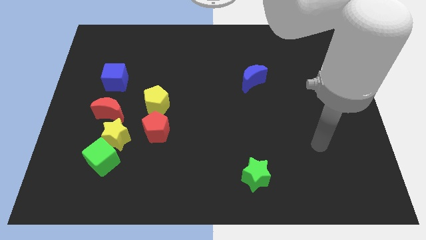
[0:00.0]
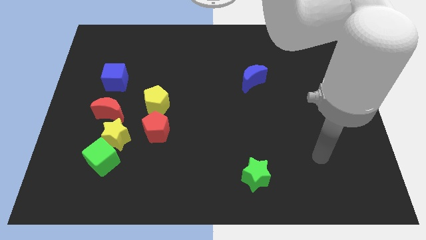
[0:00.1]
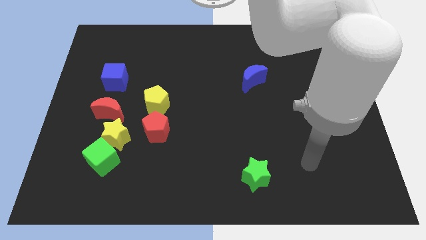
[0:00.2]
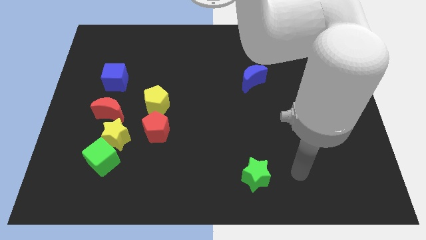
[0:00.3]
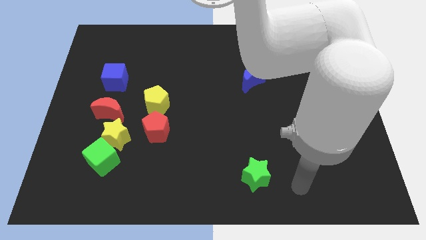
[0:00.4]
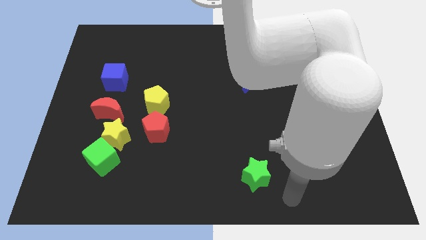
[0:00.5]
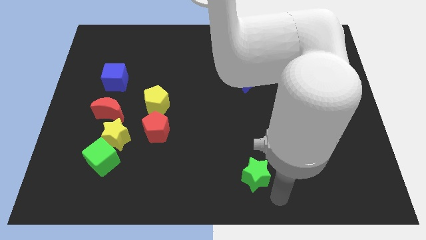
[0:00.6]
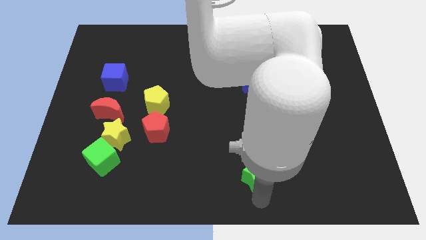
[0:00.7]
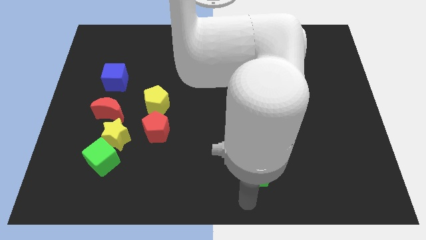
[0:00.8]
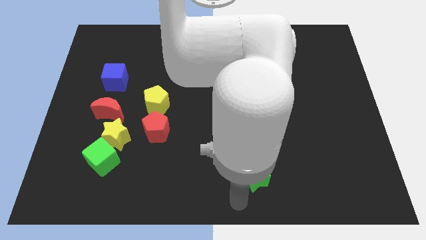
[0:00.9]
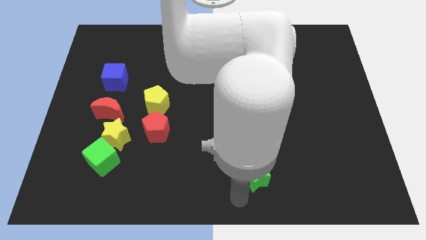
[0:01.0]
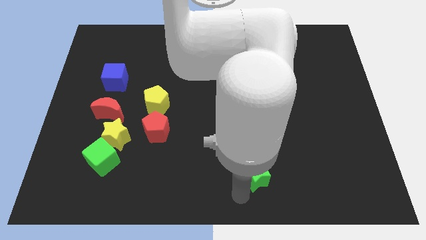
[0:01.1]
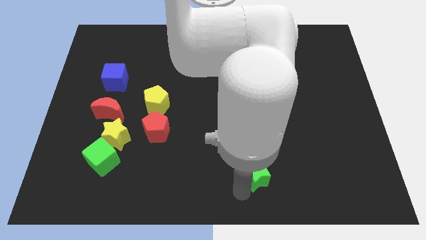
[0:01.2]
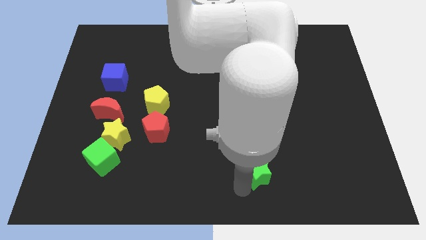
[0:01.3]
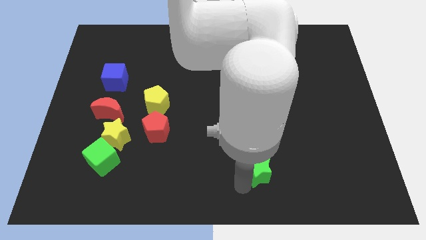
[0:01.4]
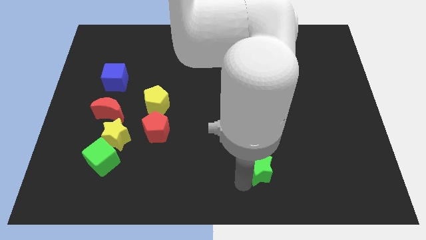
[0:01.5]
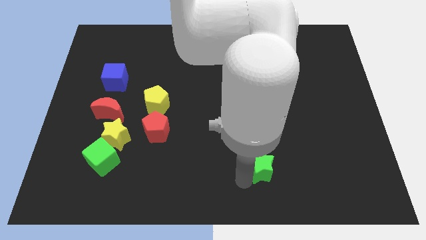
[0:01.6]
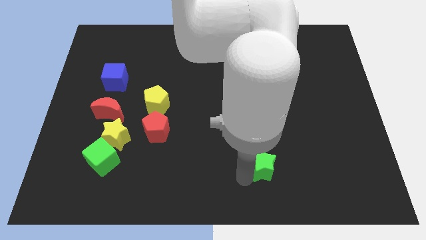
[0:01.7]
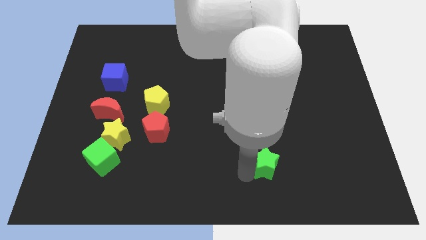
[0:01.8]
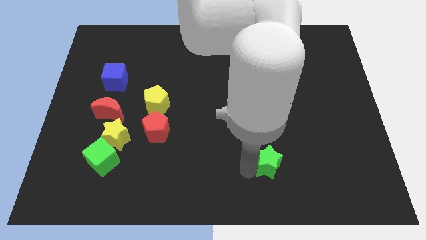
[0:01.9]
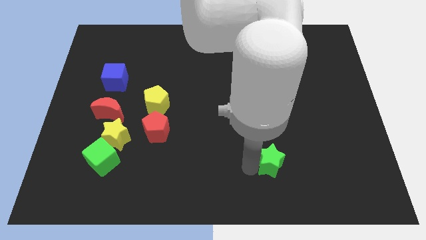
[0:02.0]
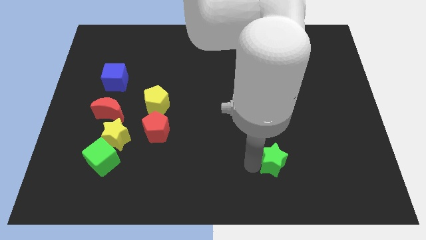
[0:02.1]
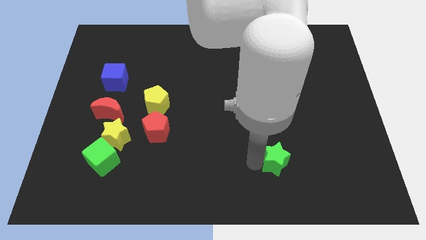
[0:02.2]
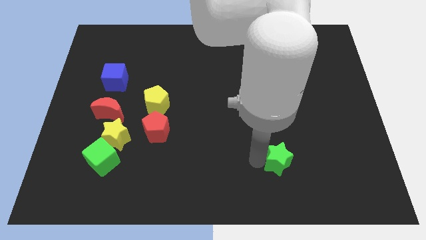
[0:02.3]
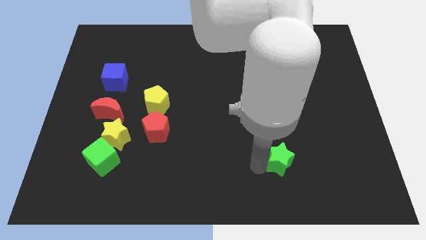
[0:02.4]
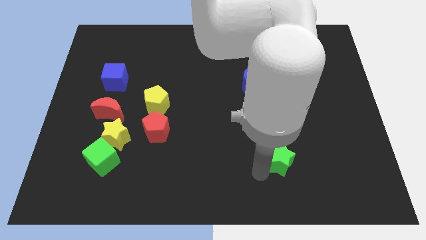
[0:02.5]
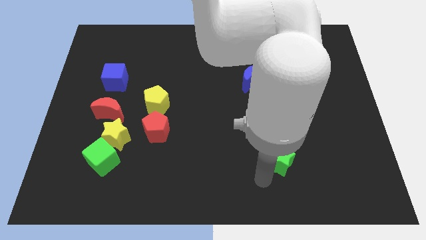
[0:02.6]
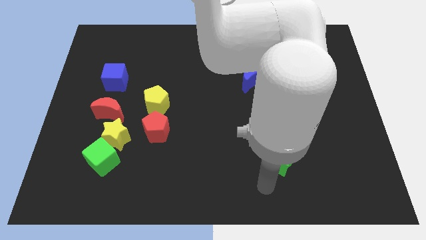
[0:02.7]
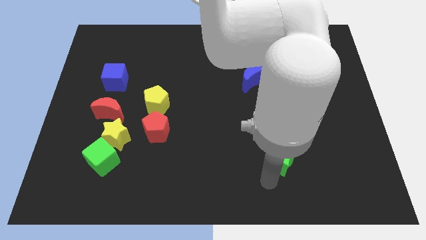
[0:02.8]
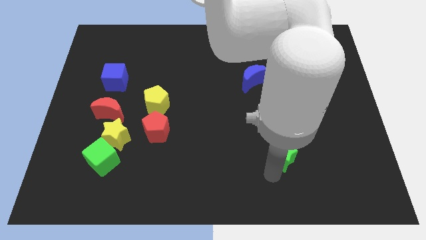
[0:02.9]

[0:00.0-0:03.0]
slightly move the green star diagonally upwards and to the right

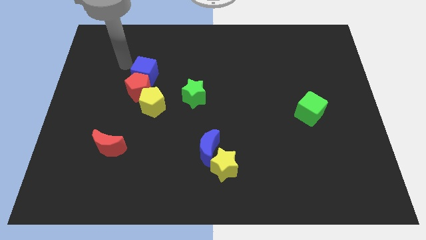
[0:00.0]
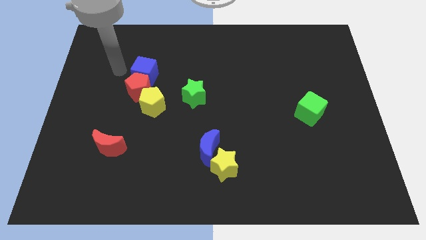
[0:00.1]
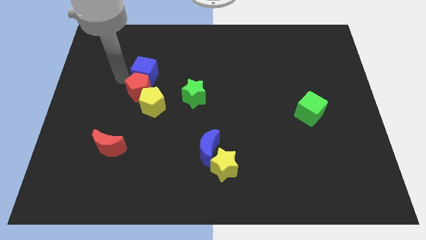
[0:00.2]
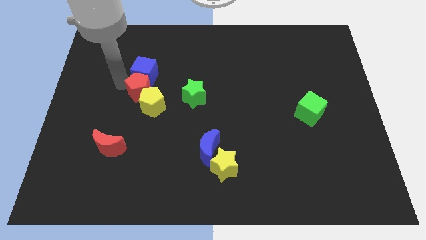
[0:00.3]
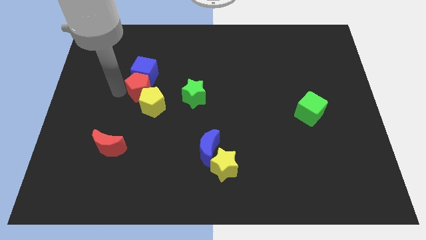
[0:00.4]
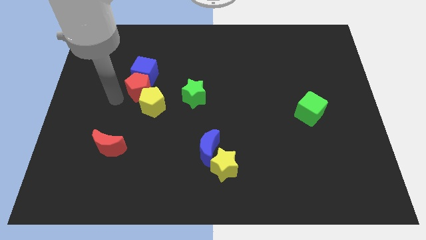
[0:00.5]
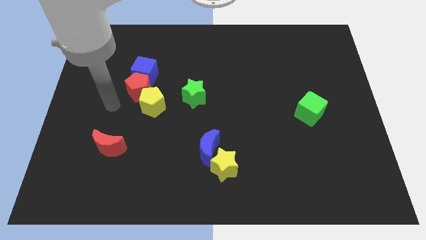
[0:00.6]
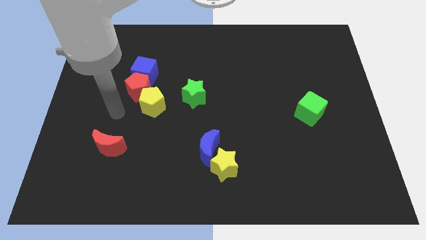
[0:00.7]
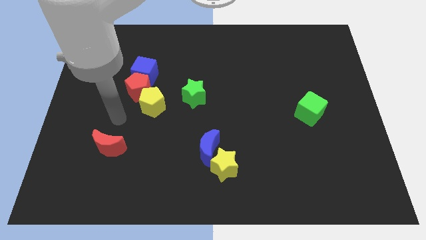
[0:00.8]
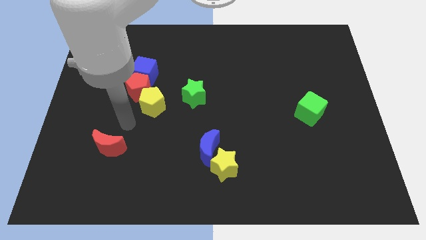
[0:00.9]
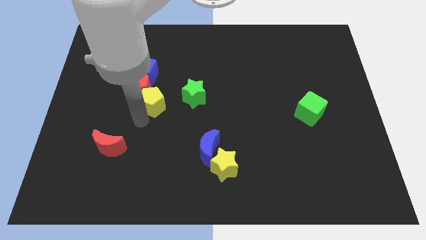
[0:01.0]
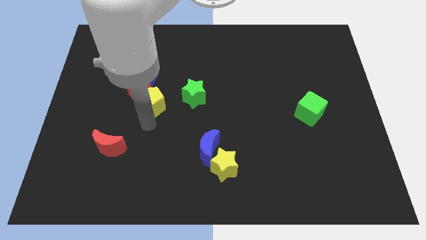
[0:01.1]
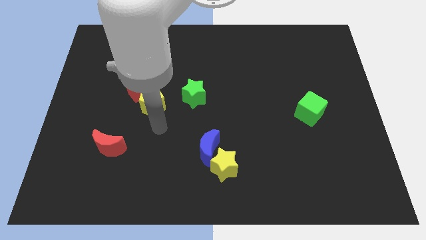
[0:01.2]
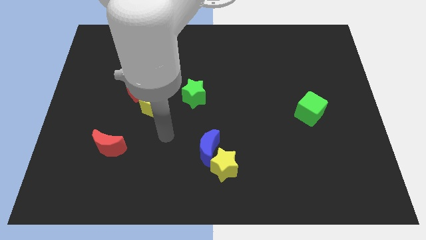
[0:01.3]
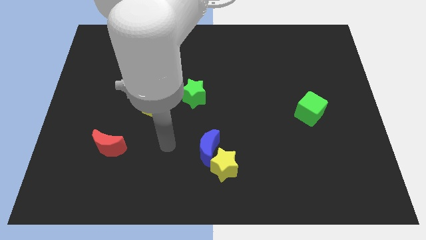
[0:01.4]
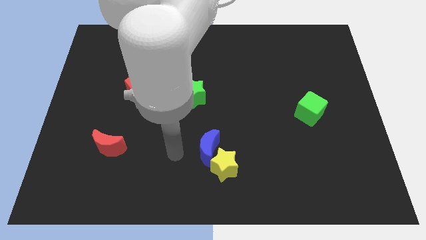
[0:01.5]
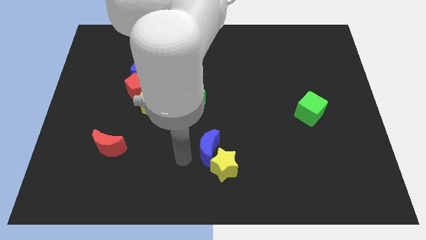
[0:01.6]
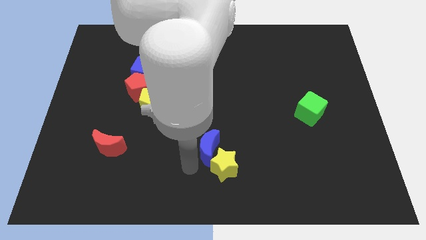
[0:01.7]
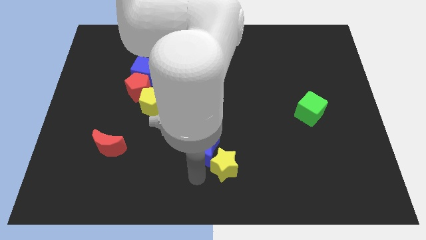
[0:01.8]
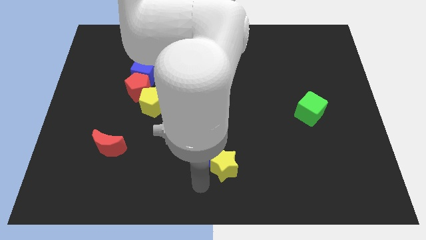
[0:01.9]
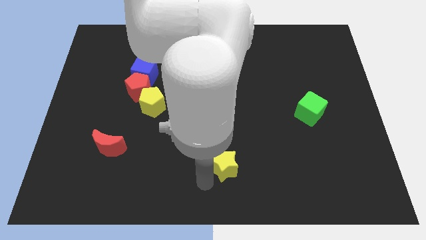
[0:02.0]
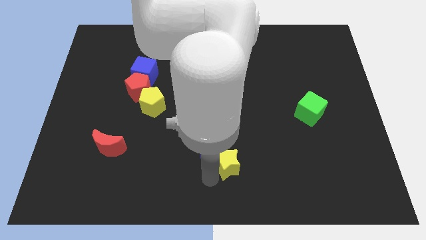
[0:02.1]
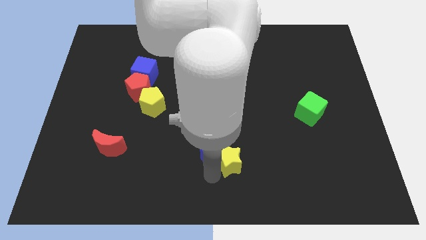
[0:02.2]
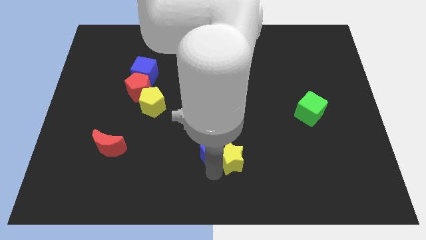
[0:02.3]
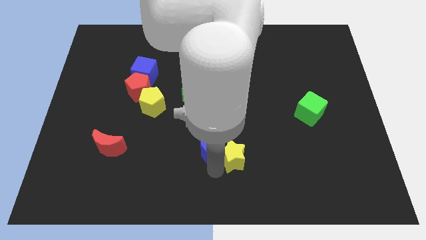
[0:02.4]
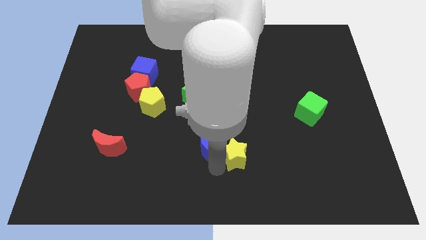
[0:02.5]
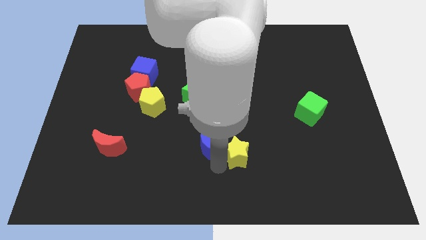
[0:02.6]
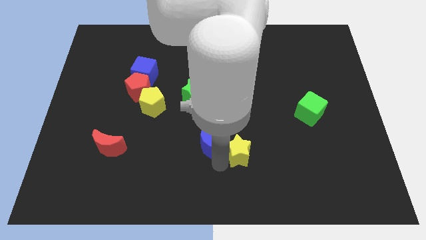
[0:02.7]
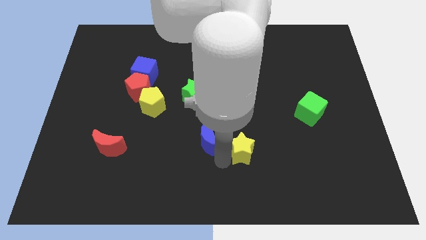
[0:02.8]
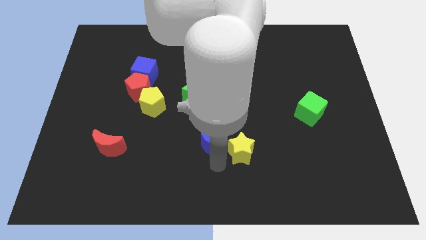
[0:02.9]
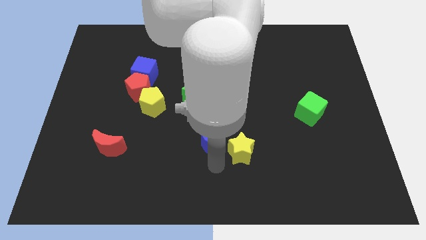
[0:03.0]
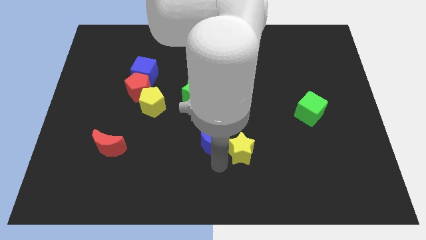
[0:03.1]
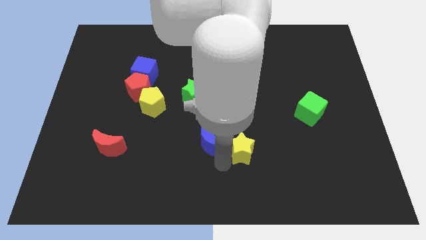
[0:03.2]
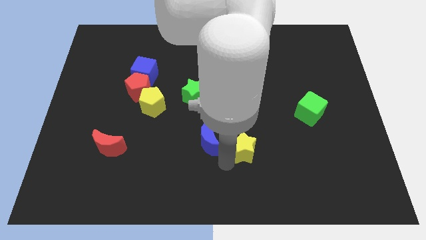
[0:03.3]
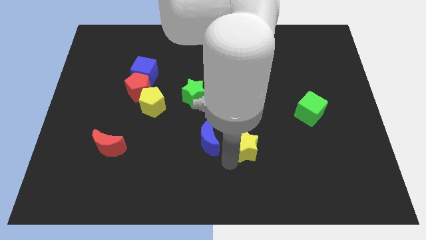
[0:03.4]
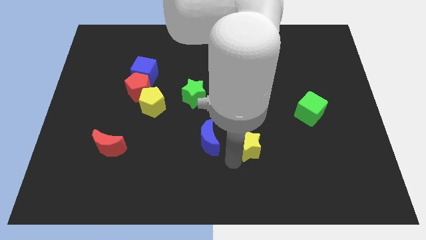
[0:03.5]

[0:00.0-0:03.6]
move the yellow star a little up and to the right

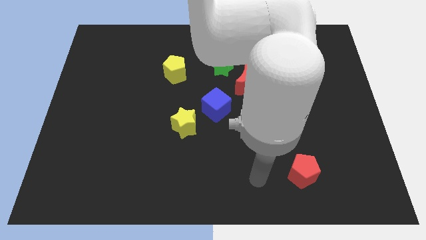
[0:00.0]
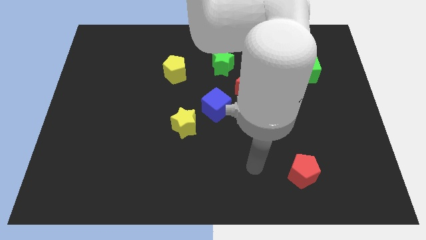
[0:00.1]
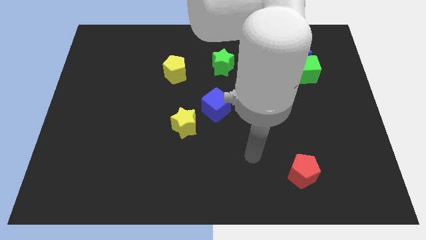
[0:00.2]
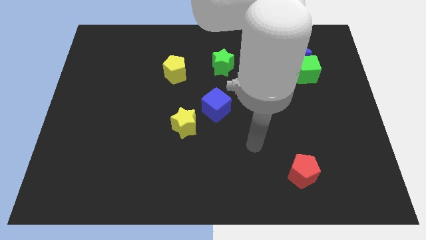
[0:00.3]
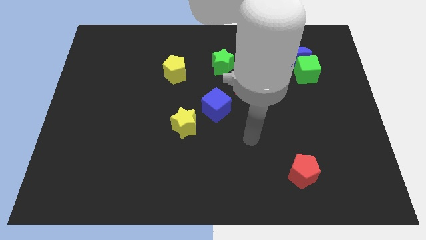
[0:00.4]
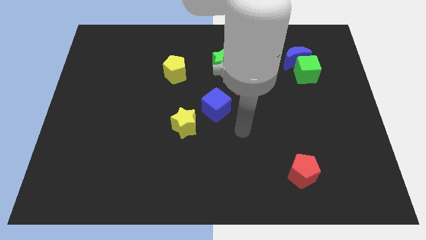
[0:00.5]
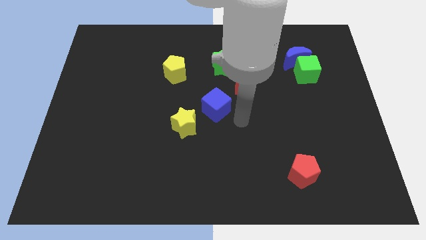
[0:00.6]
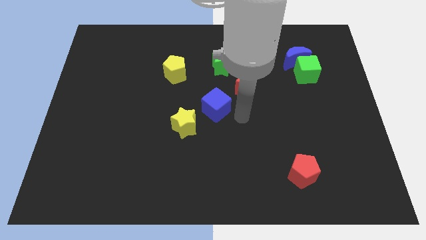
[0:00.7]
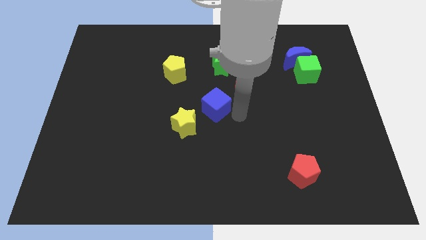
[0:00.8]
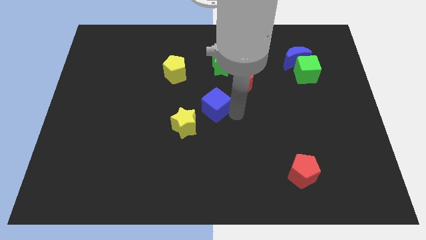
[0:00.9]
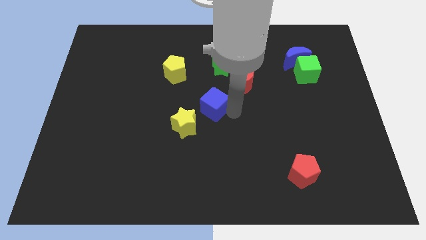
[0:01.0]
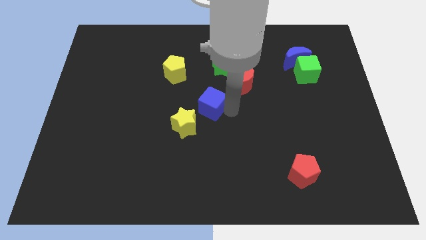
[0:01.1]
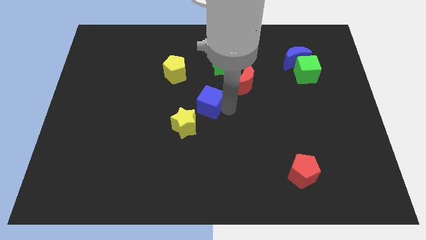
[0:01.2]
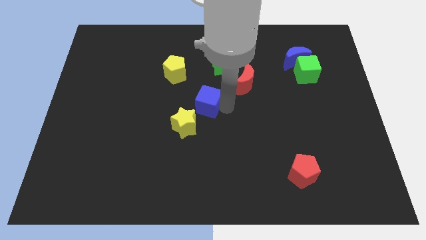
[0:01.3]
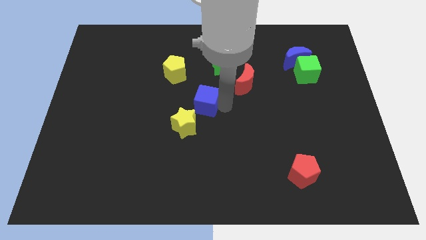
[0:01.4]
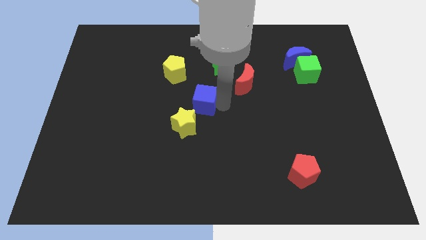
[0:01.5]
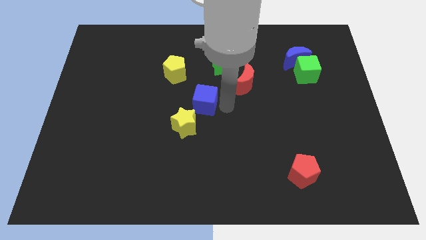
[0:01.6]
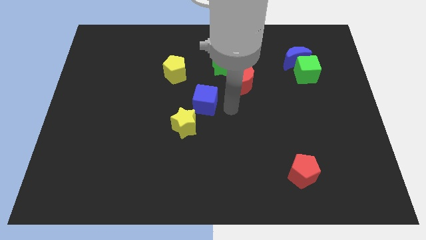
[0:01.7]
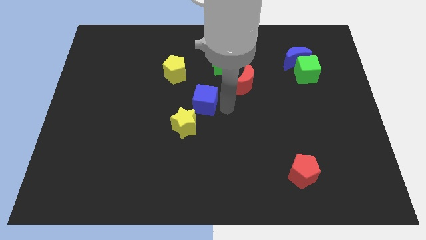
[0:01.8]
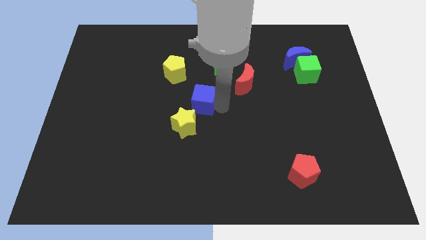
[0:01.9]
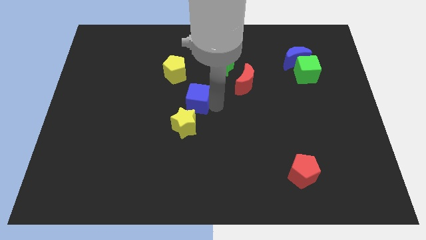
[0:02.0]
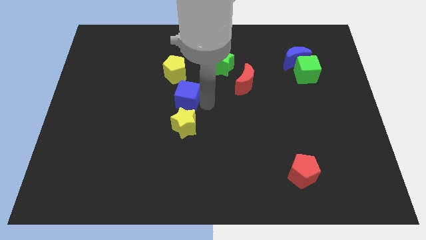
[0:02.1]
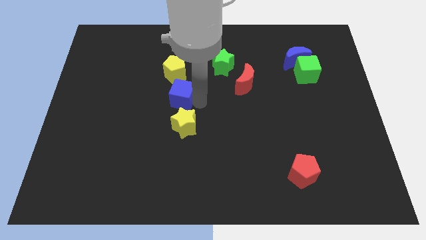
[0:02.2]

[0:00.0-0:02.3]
slightly move the blue cube up and then left
